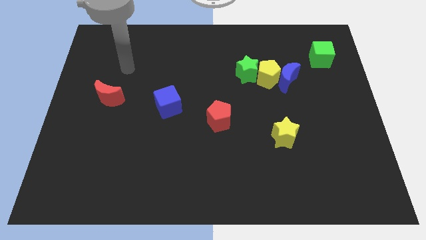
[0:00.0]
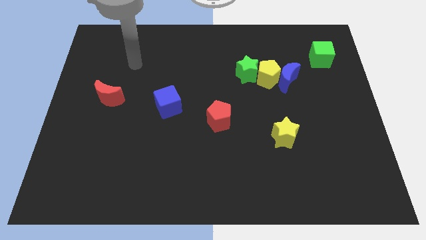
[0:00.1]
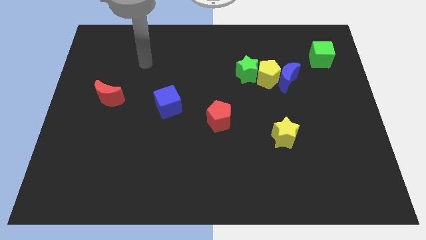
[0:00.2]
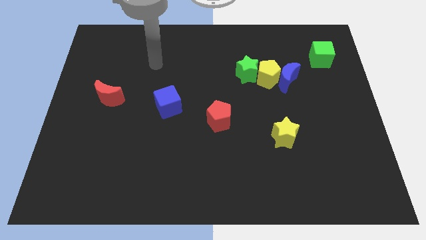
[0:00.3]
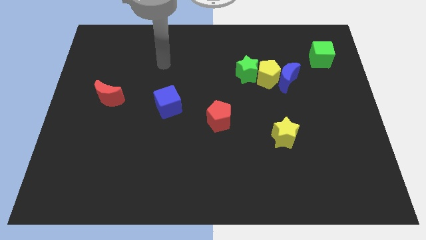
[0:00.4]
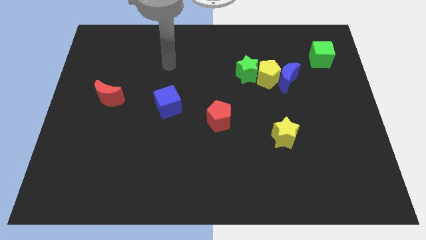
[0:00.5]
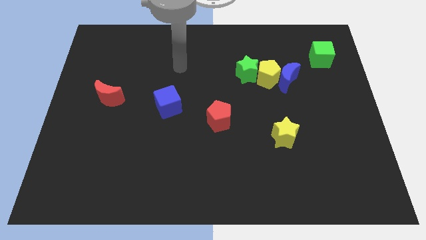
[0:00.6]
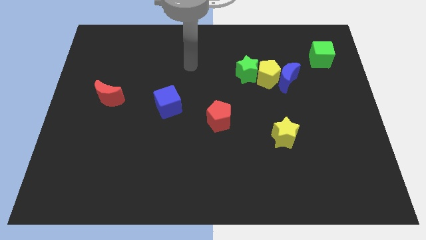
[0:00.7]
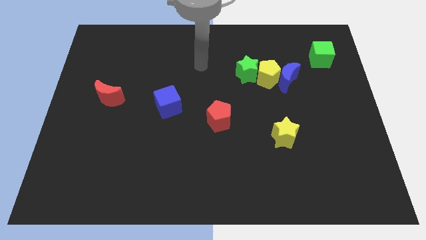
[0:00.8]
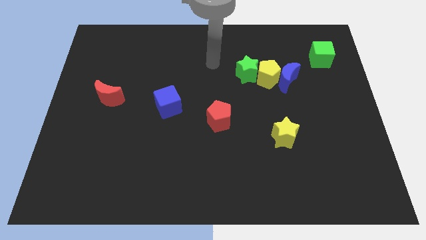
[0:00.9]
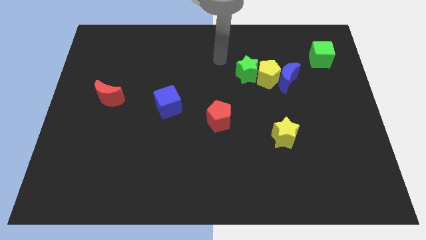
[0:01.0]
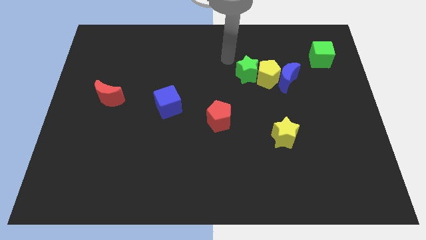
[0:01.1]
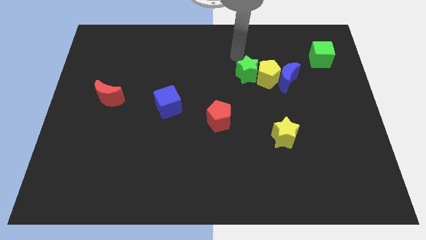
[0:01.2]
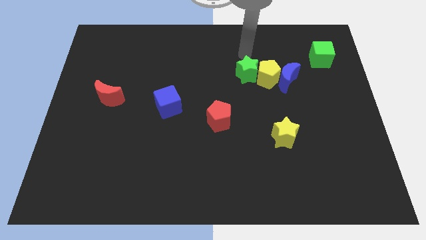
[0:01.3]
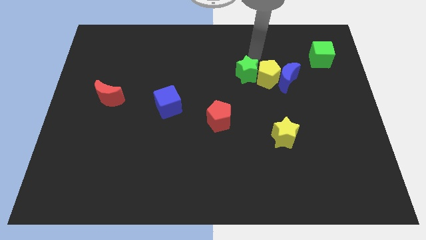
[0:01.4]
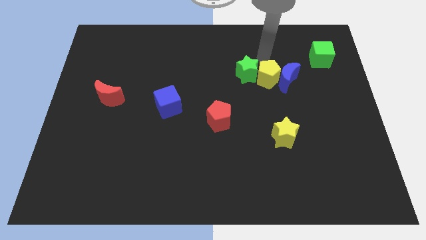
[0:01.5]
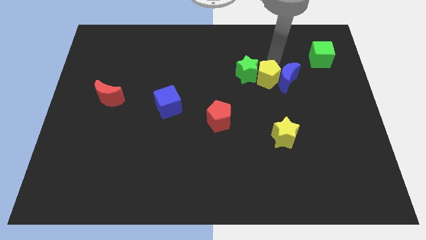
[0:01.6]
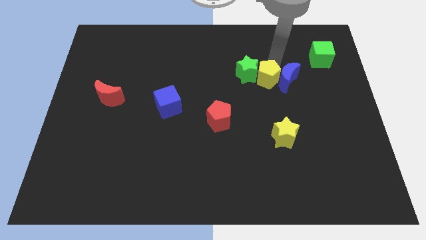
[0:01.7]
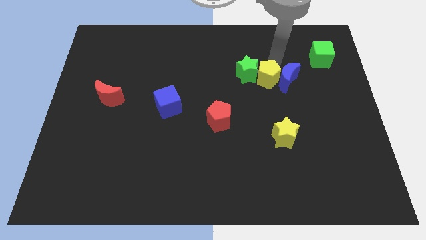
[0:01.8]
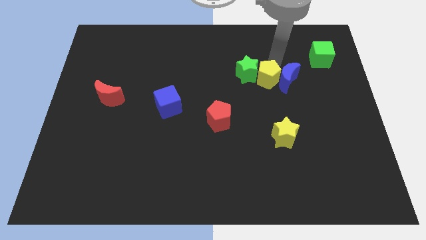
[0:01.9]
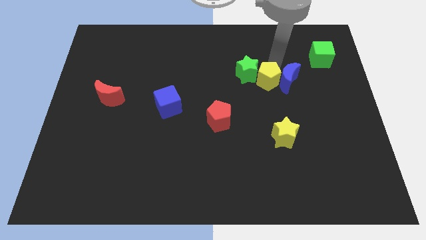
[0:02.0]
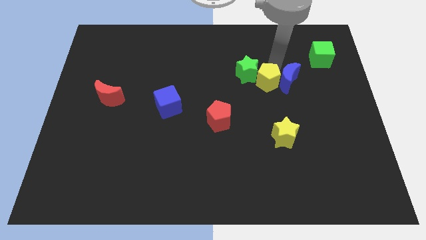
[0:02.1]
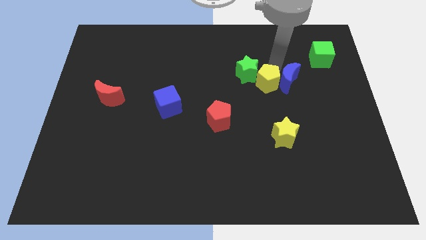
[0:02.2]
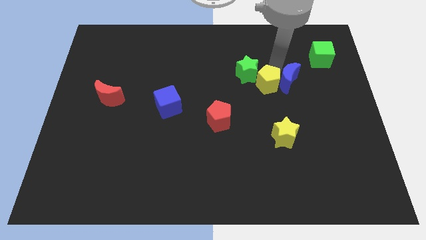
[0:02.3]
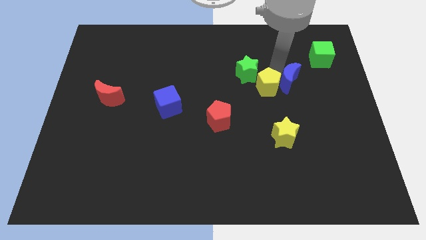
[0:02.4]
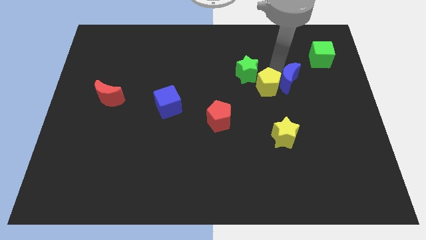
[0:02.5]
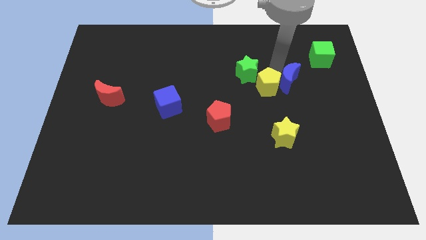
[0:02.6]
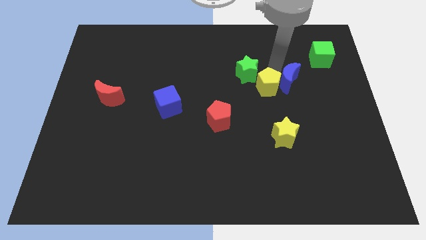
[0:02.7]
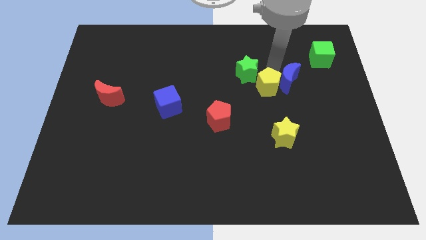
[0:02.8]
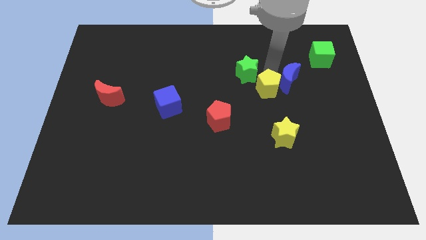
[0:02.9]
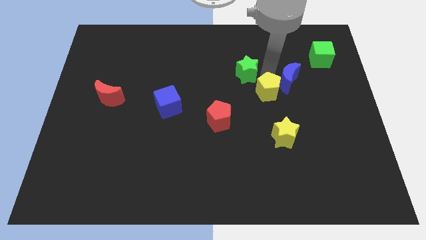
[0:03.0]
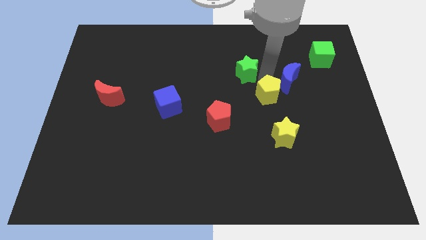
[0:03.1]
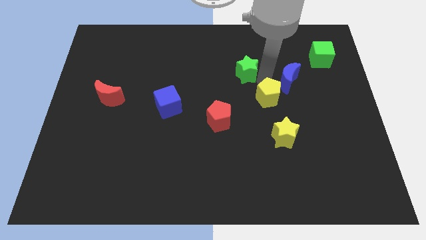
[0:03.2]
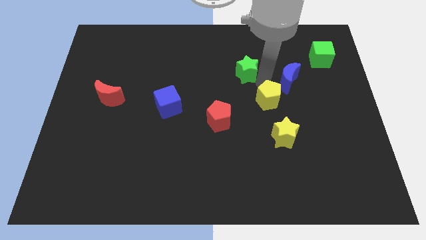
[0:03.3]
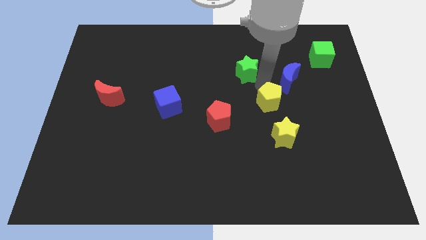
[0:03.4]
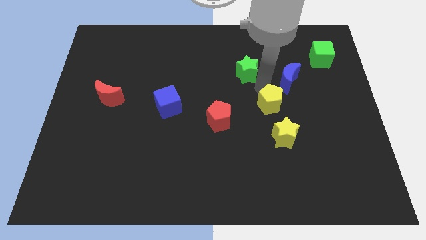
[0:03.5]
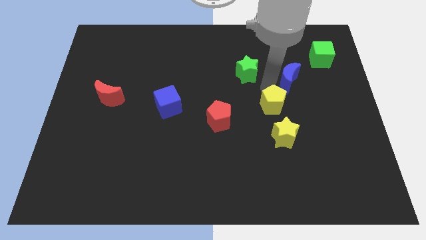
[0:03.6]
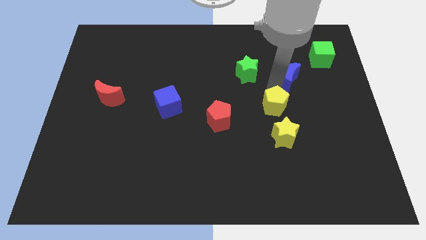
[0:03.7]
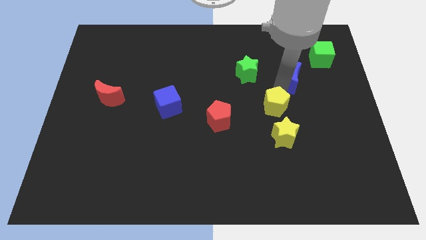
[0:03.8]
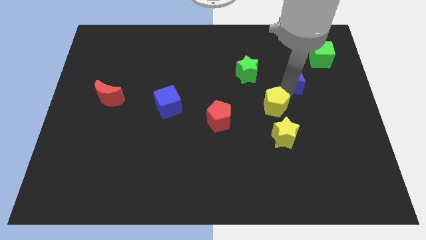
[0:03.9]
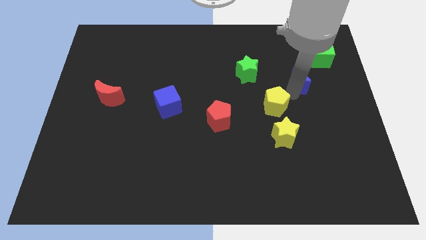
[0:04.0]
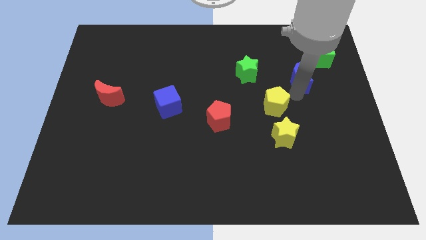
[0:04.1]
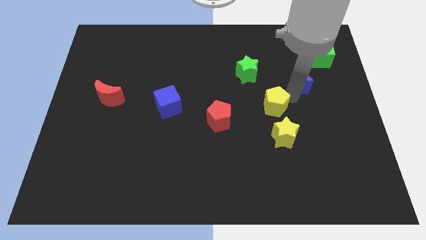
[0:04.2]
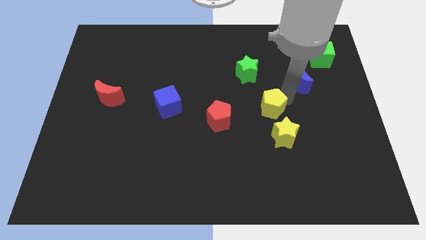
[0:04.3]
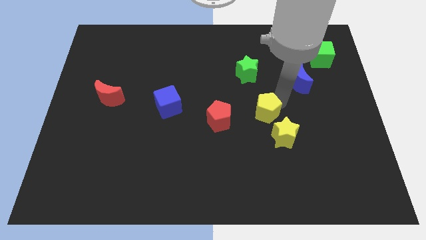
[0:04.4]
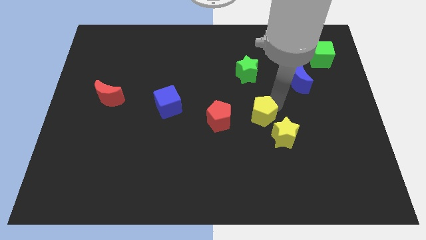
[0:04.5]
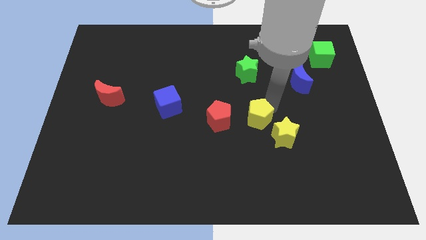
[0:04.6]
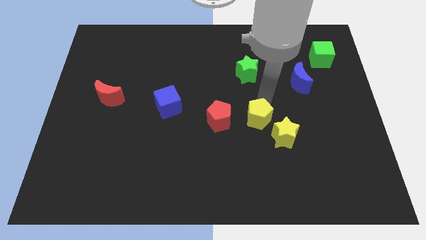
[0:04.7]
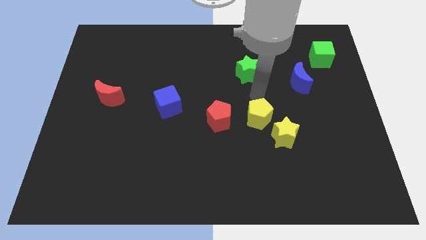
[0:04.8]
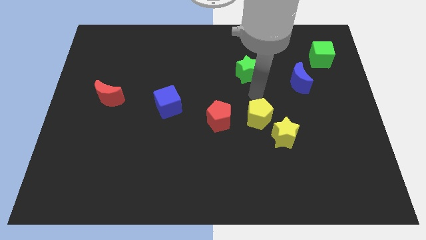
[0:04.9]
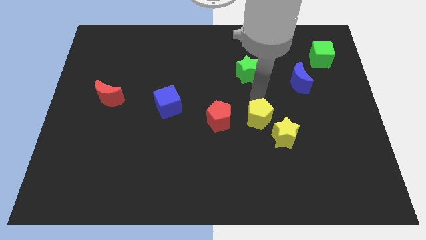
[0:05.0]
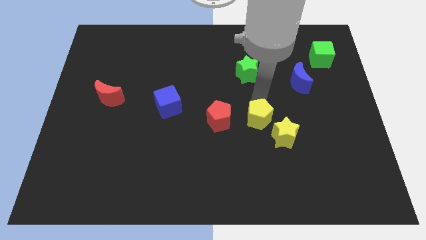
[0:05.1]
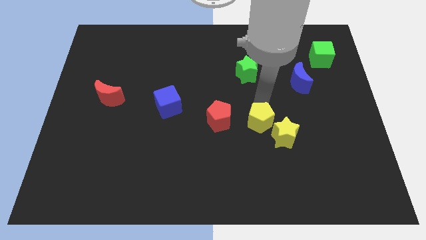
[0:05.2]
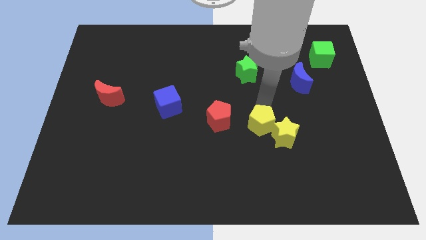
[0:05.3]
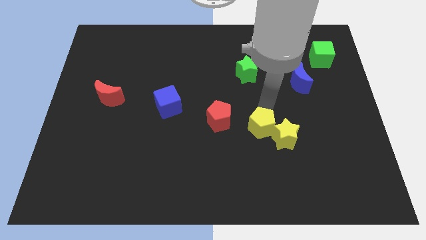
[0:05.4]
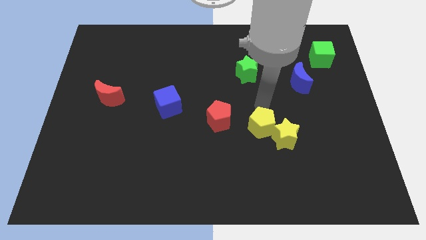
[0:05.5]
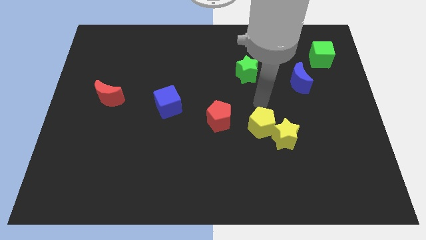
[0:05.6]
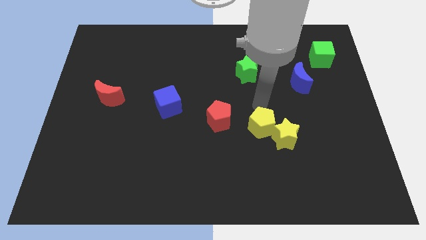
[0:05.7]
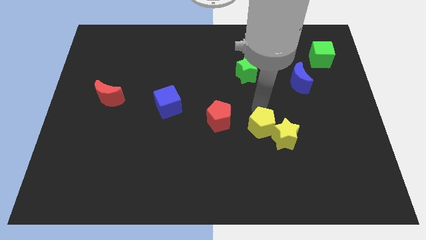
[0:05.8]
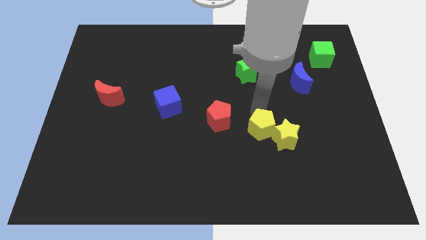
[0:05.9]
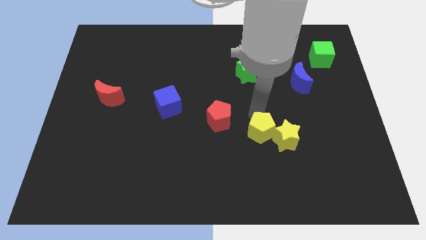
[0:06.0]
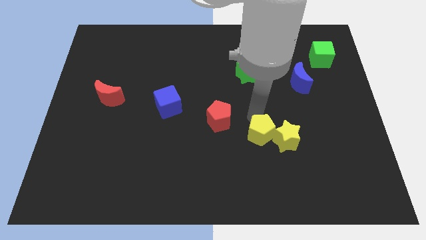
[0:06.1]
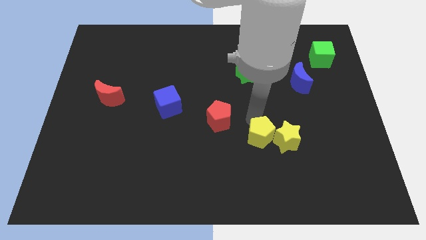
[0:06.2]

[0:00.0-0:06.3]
put the yellow pentagon diagonally down and to the left of the yellow star

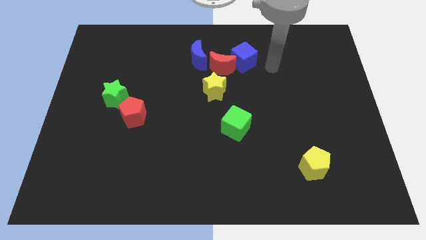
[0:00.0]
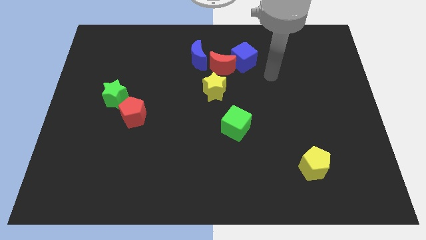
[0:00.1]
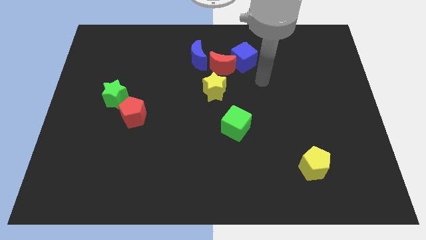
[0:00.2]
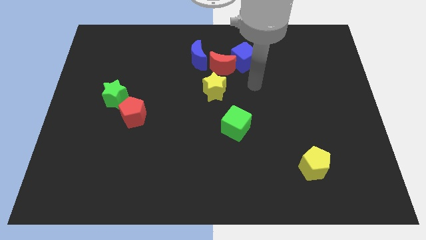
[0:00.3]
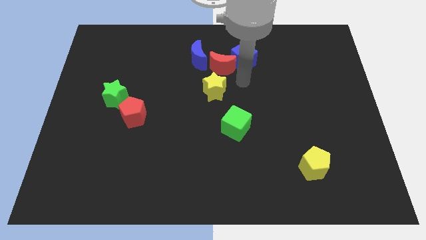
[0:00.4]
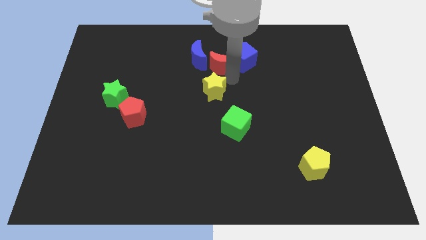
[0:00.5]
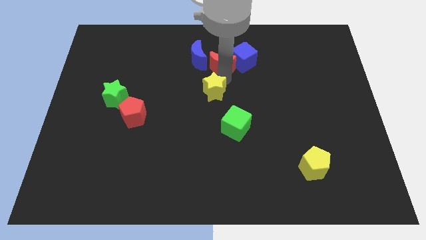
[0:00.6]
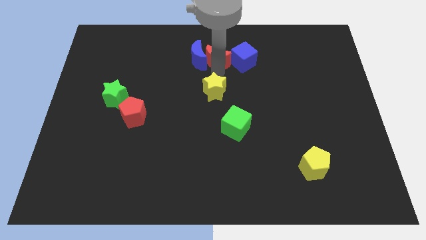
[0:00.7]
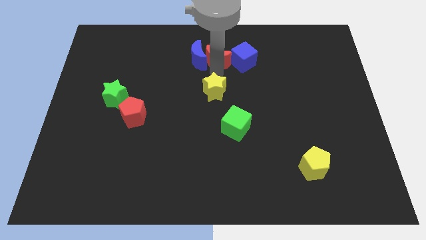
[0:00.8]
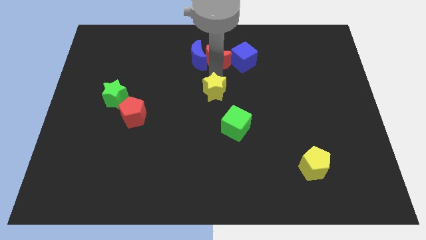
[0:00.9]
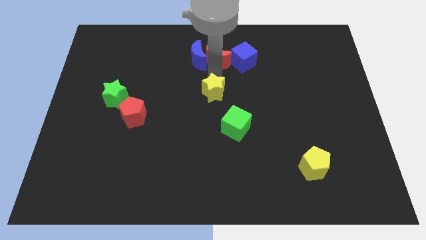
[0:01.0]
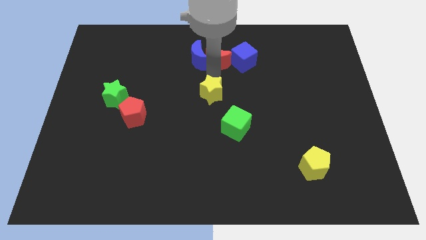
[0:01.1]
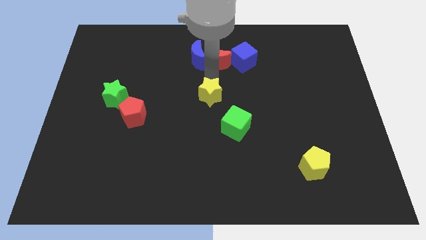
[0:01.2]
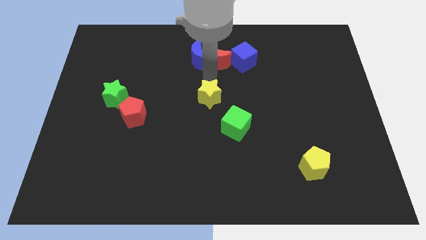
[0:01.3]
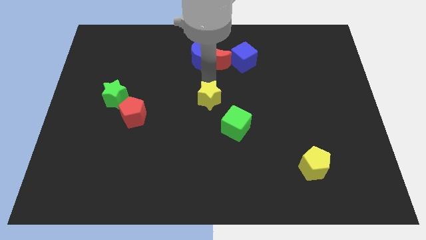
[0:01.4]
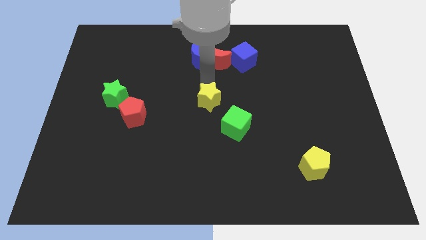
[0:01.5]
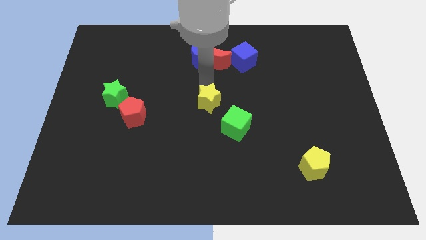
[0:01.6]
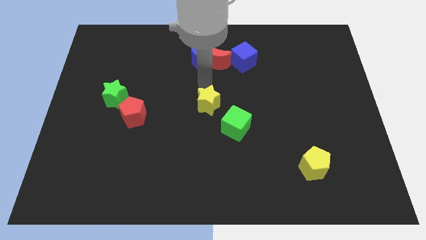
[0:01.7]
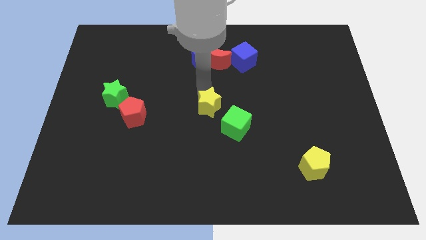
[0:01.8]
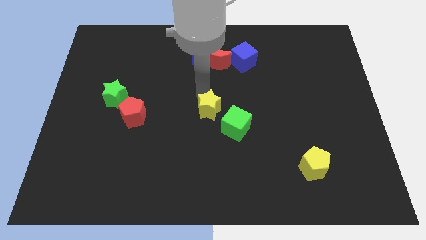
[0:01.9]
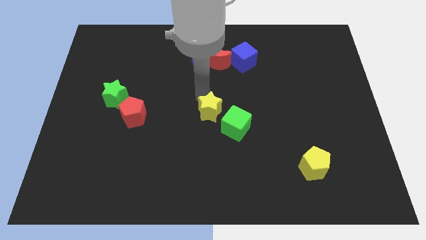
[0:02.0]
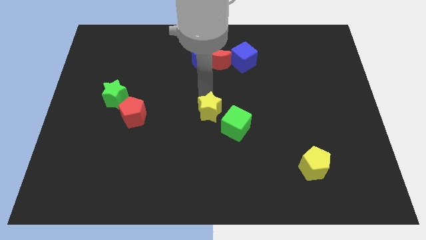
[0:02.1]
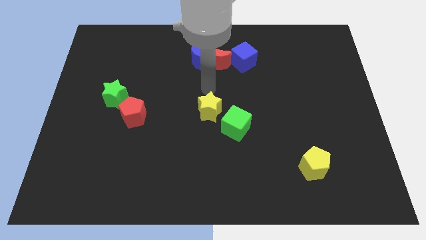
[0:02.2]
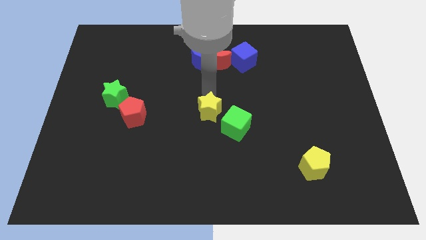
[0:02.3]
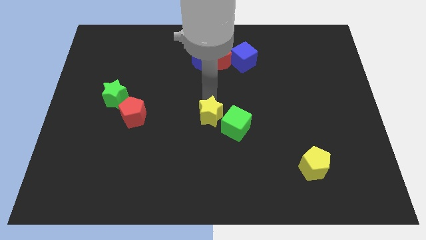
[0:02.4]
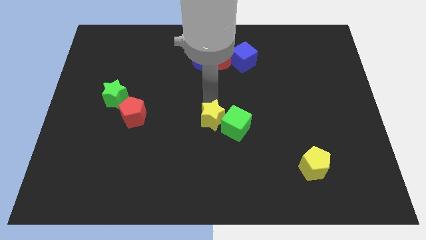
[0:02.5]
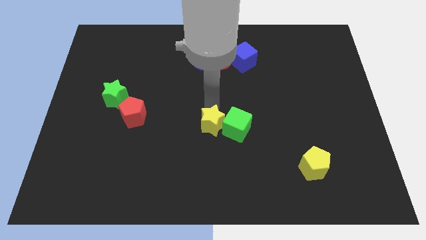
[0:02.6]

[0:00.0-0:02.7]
move the yellow star to the bottom left side of the green cube
